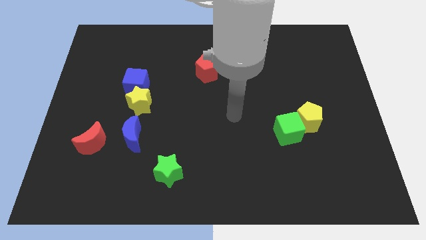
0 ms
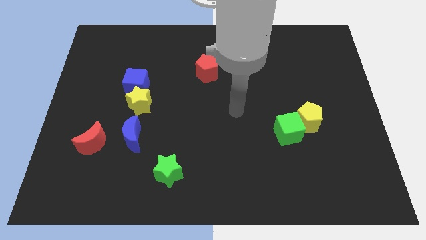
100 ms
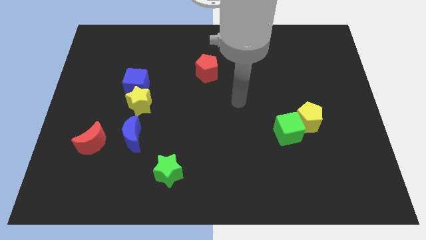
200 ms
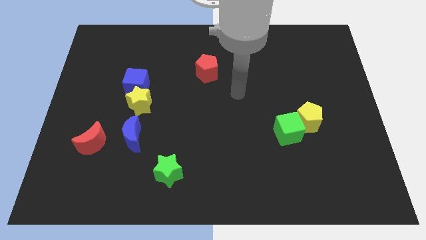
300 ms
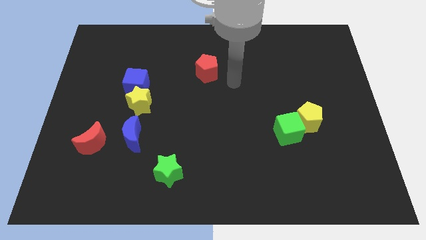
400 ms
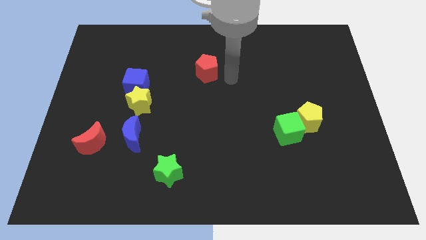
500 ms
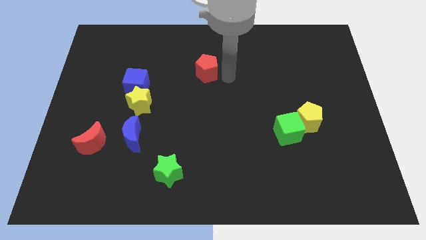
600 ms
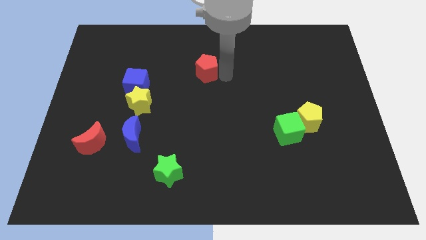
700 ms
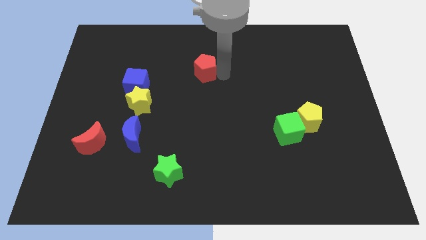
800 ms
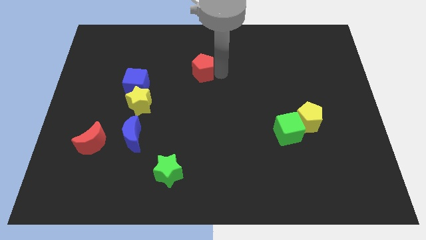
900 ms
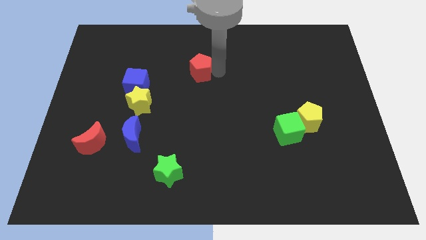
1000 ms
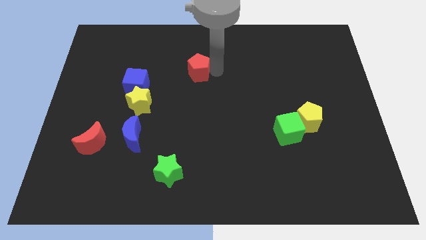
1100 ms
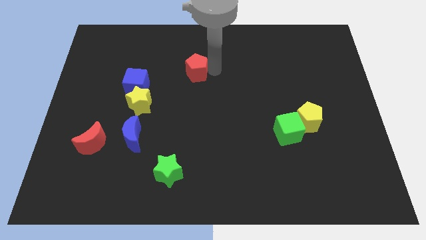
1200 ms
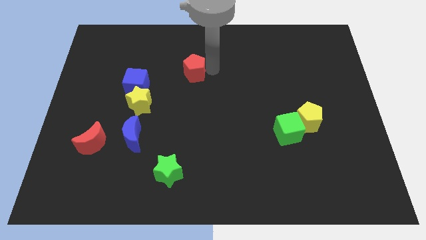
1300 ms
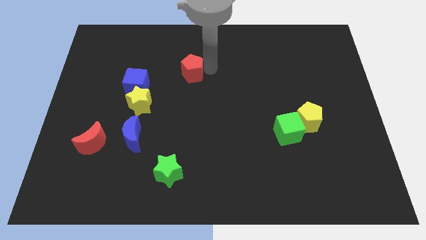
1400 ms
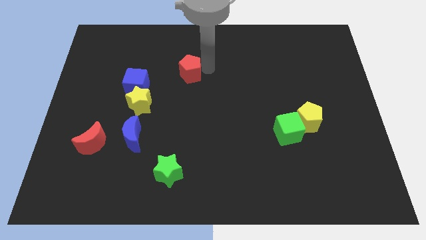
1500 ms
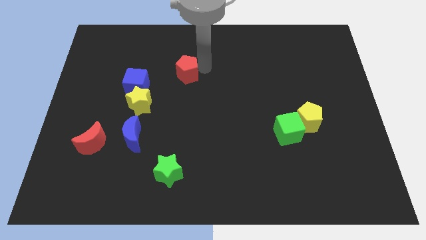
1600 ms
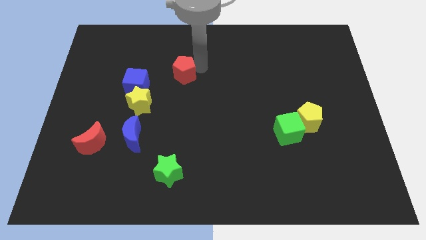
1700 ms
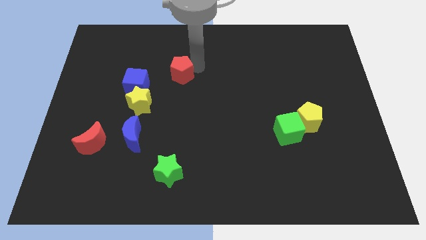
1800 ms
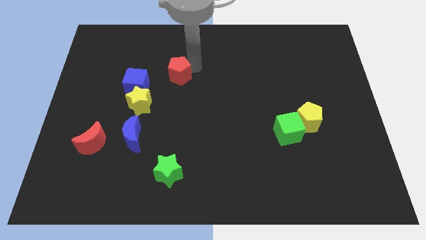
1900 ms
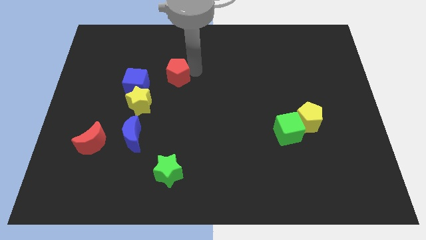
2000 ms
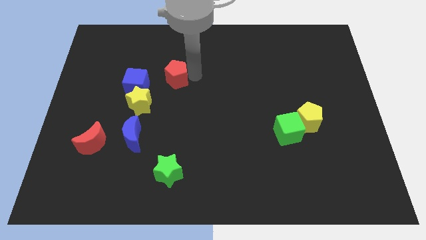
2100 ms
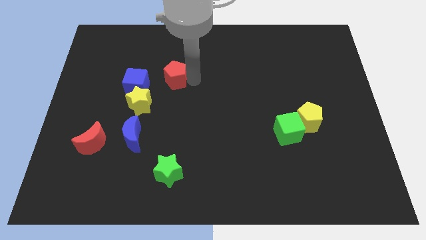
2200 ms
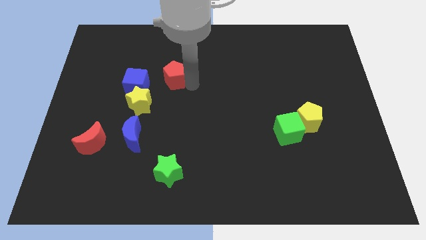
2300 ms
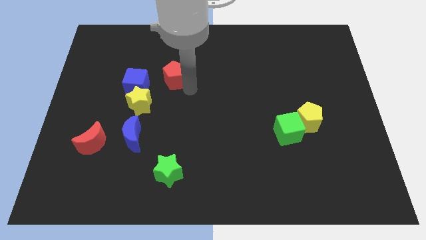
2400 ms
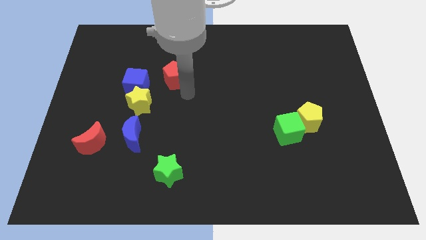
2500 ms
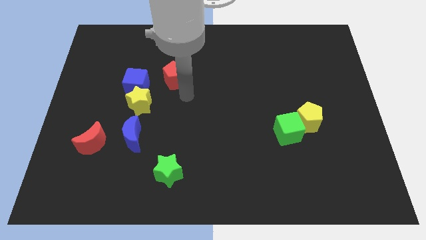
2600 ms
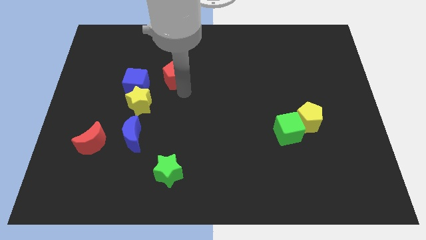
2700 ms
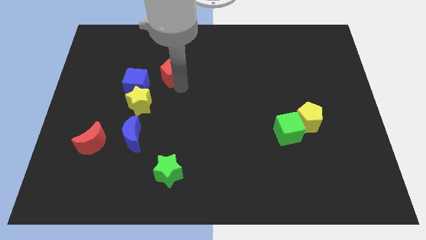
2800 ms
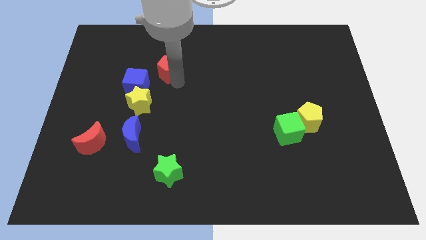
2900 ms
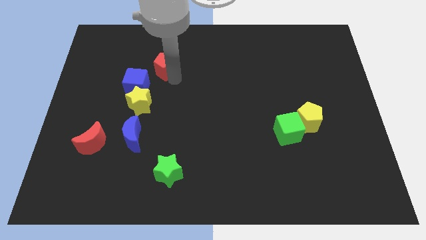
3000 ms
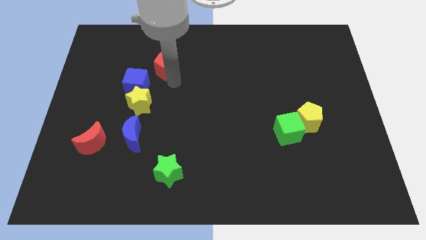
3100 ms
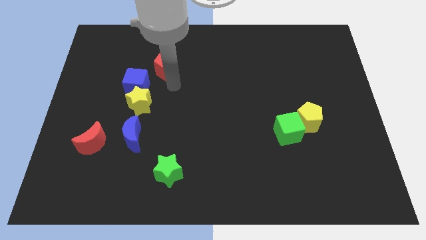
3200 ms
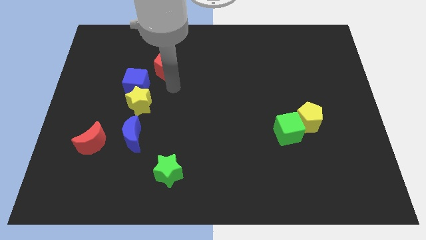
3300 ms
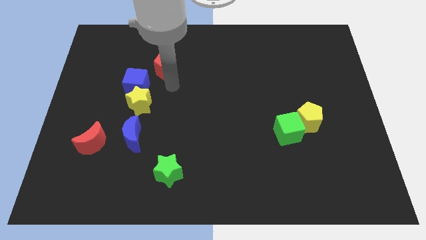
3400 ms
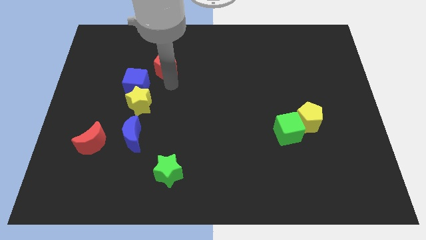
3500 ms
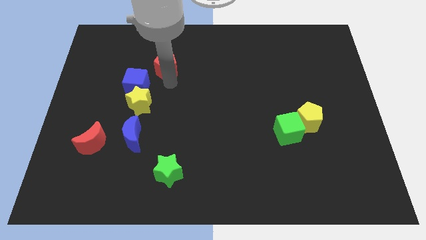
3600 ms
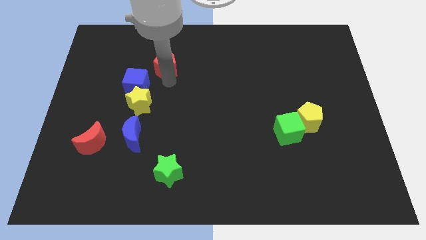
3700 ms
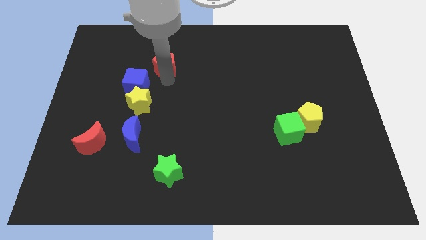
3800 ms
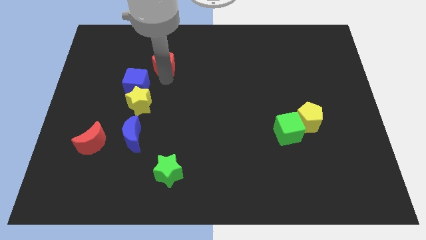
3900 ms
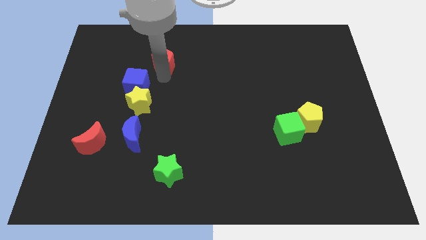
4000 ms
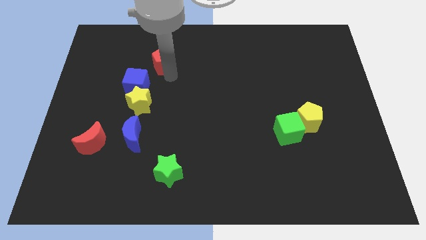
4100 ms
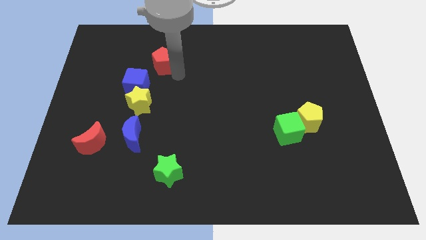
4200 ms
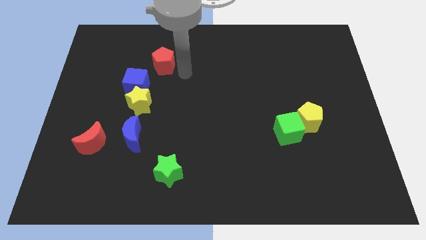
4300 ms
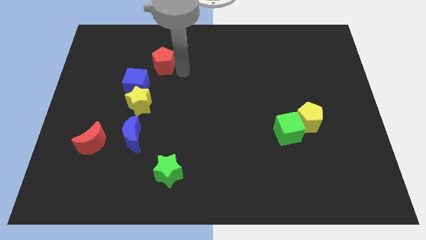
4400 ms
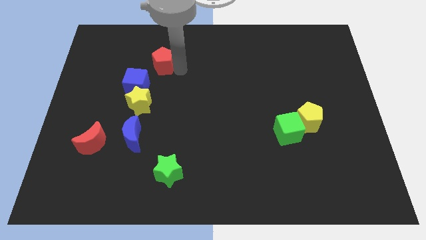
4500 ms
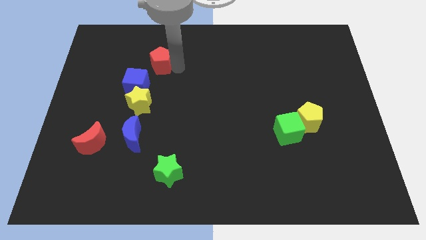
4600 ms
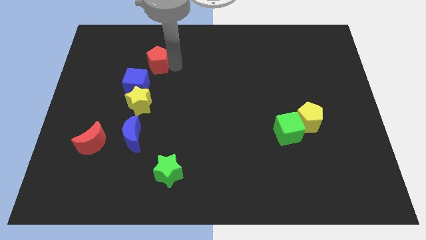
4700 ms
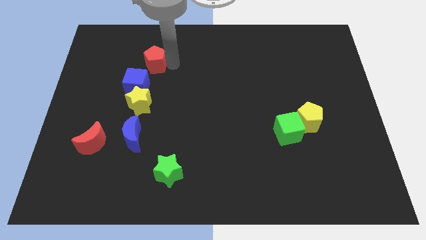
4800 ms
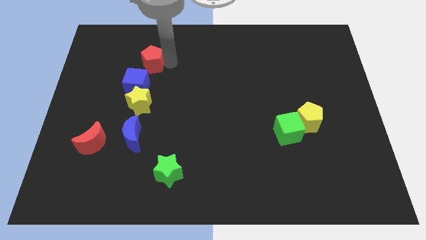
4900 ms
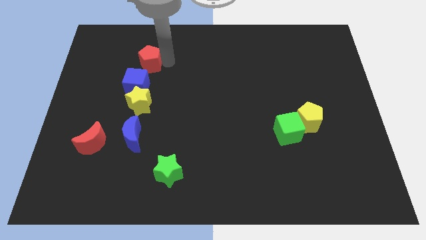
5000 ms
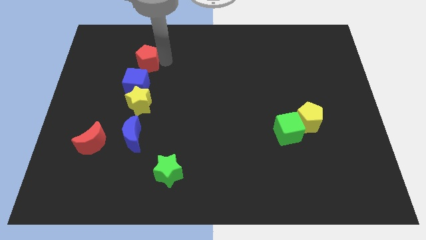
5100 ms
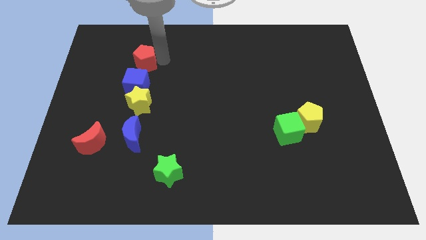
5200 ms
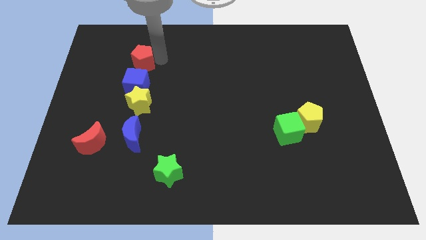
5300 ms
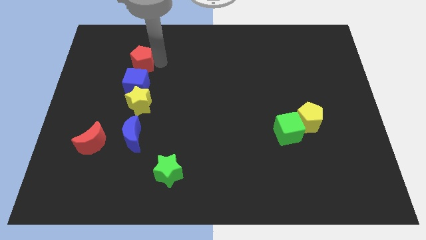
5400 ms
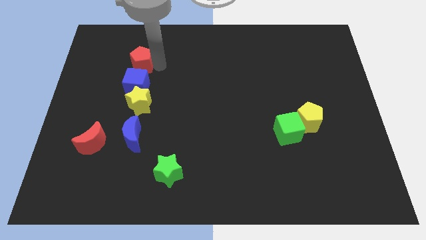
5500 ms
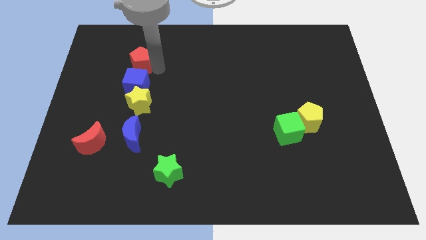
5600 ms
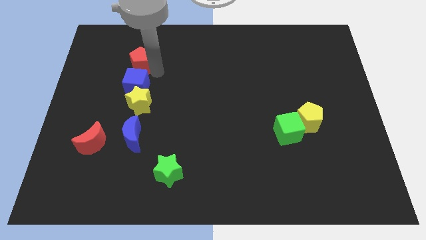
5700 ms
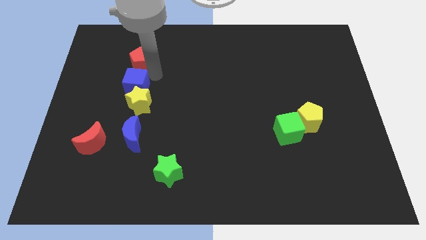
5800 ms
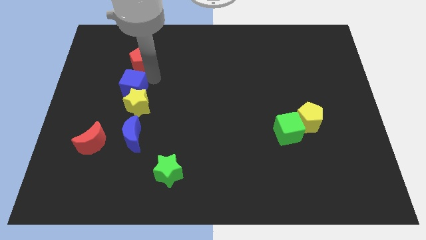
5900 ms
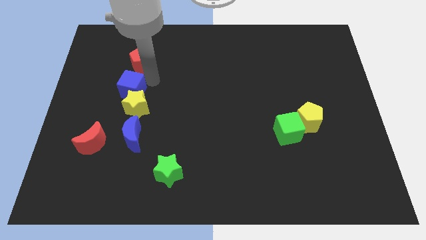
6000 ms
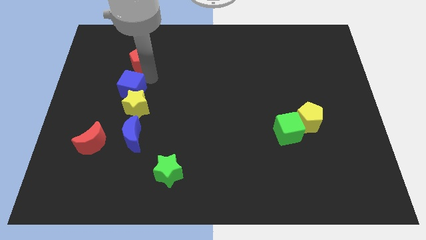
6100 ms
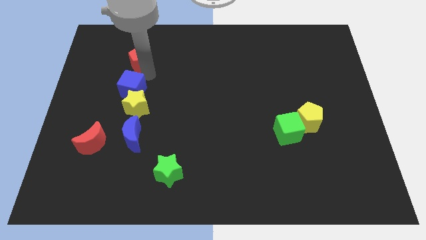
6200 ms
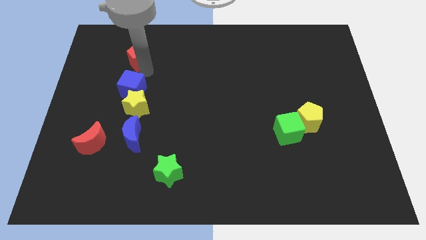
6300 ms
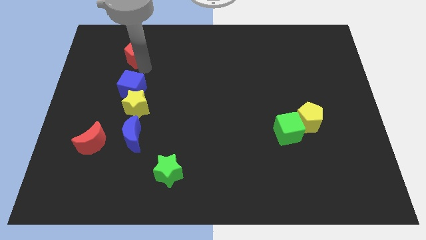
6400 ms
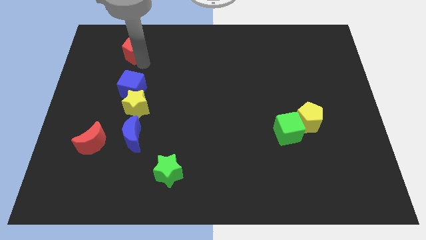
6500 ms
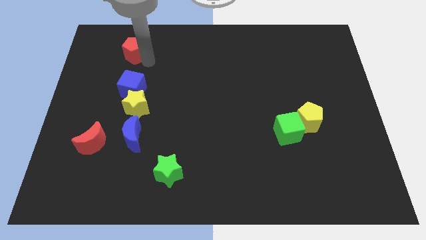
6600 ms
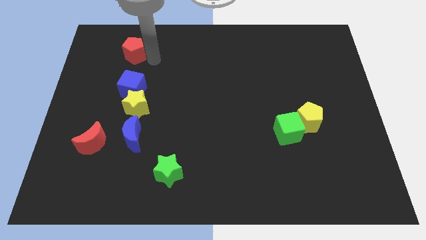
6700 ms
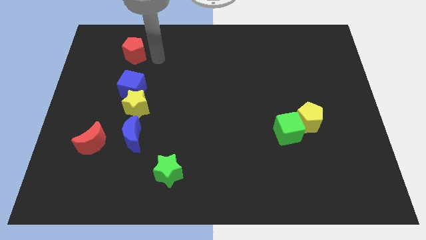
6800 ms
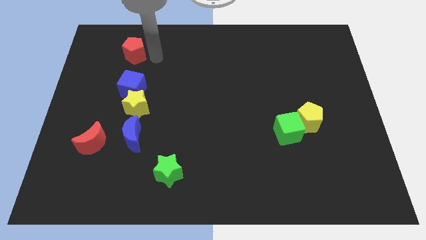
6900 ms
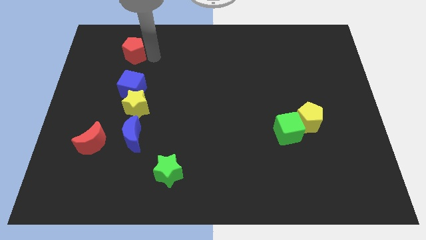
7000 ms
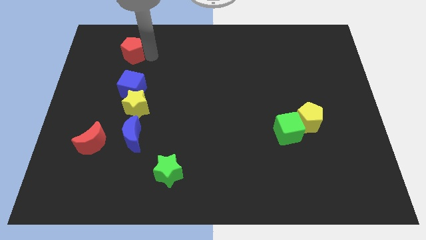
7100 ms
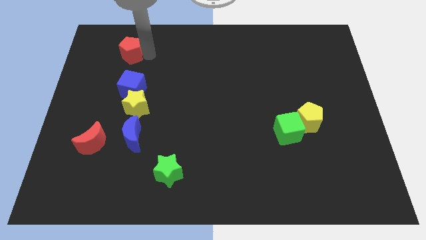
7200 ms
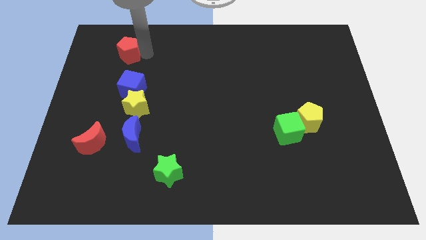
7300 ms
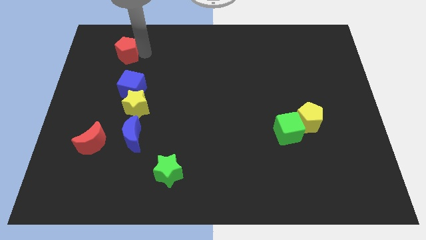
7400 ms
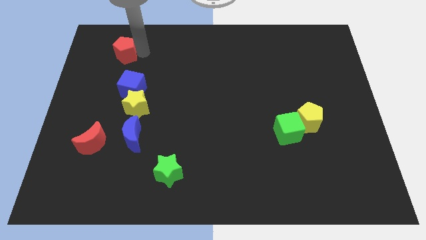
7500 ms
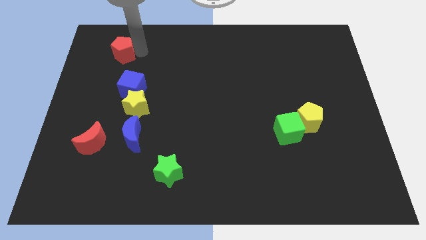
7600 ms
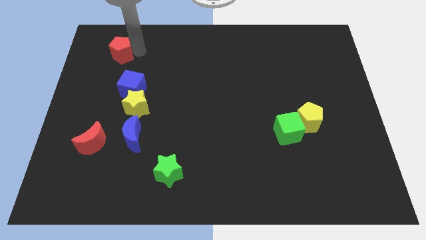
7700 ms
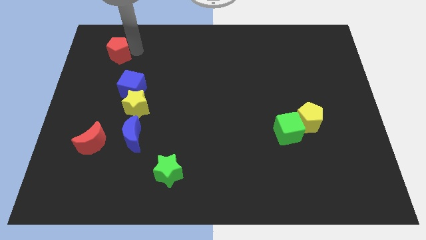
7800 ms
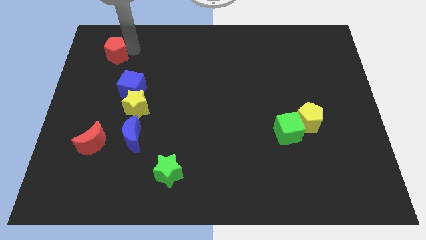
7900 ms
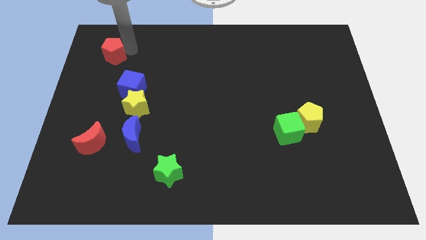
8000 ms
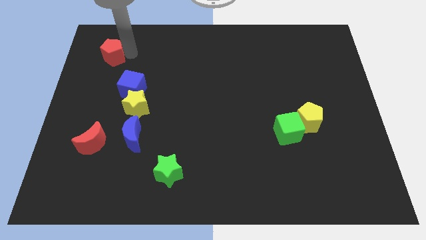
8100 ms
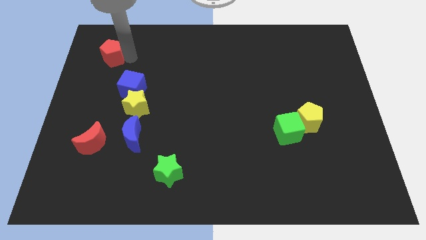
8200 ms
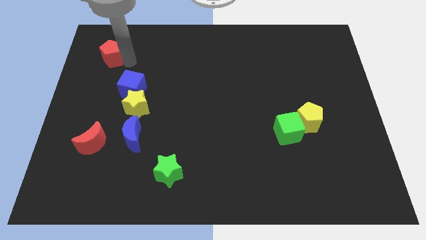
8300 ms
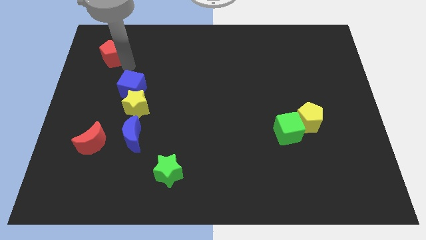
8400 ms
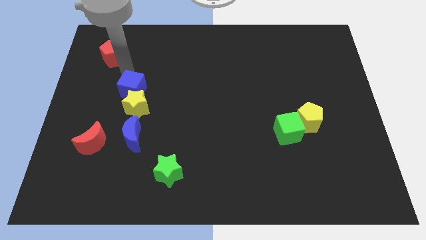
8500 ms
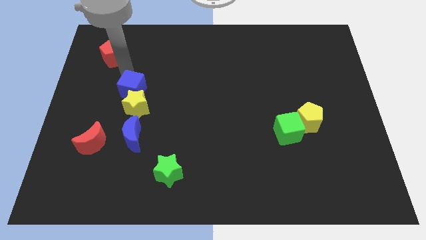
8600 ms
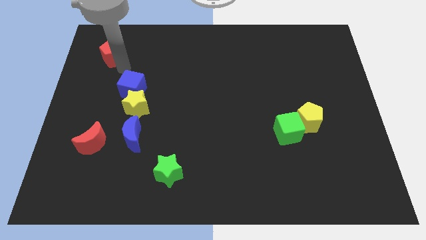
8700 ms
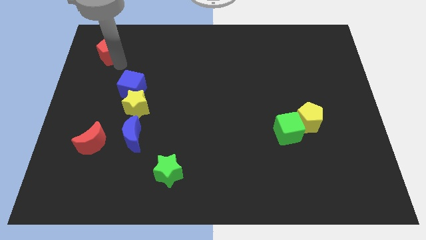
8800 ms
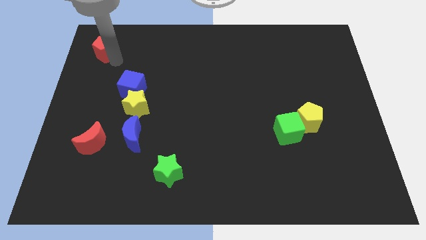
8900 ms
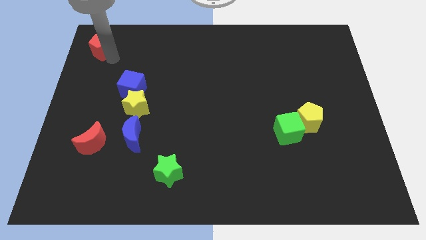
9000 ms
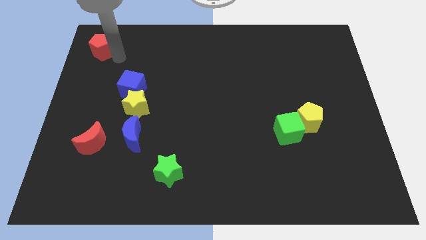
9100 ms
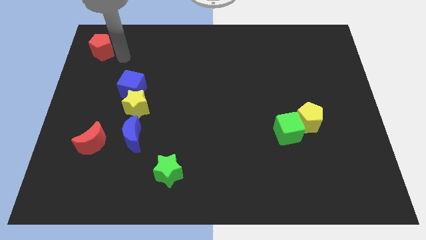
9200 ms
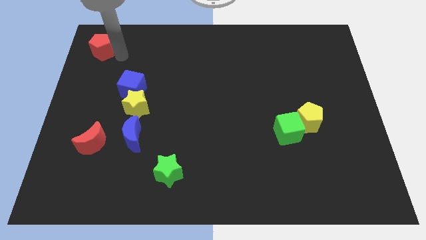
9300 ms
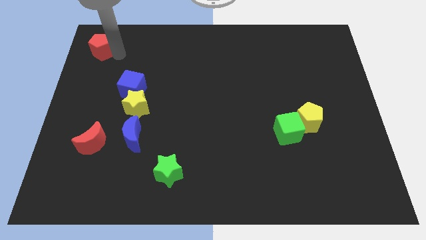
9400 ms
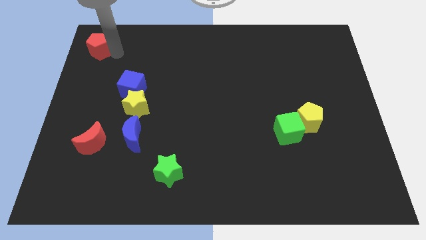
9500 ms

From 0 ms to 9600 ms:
slide the red pentagon to the upper left corner
